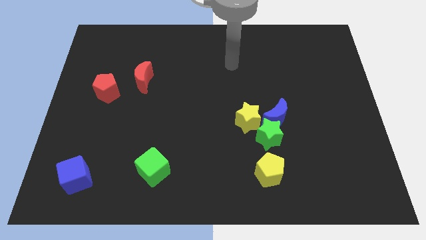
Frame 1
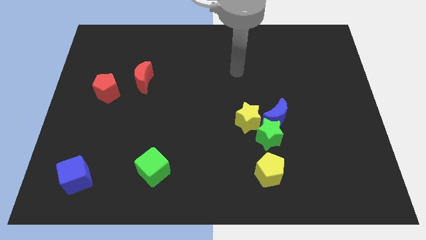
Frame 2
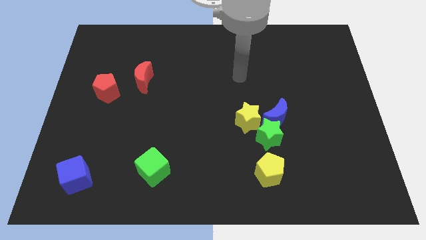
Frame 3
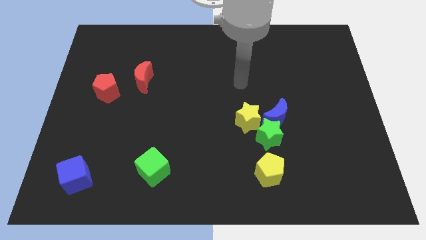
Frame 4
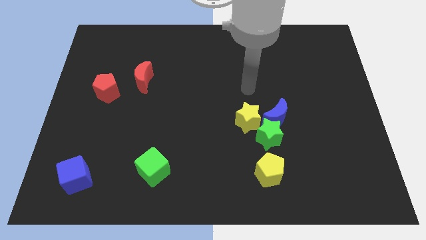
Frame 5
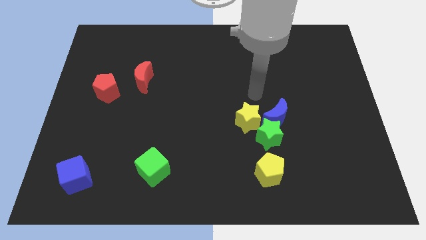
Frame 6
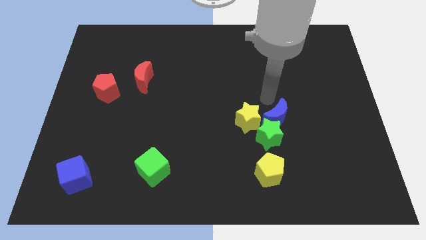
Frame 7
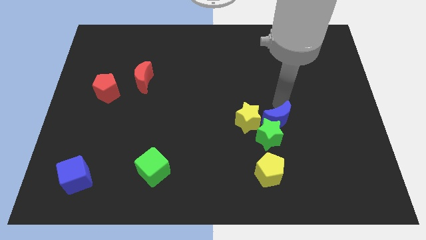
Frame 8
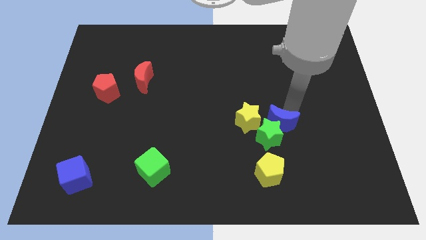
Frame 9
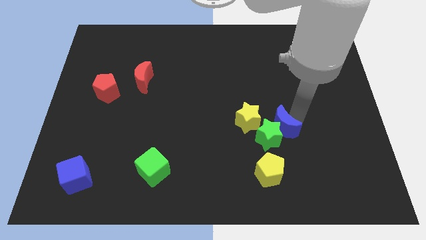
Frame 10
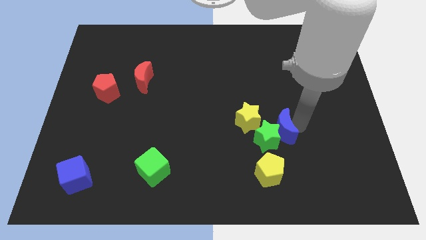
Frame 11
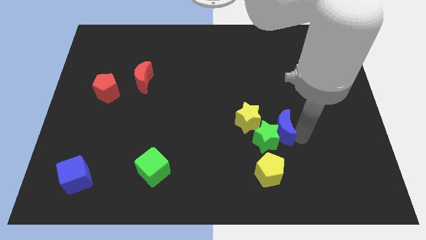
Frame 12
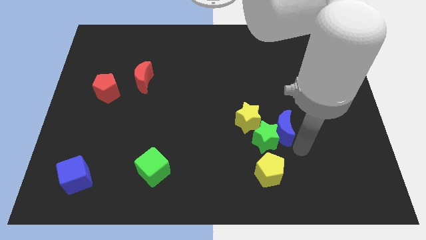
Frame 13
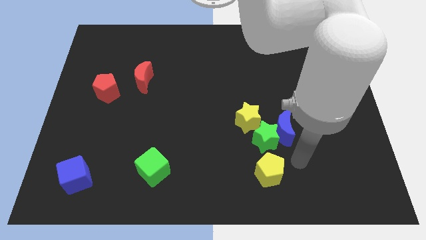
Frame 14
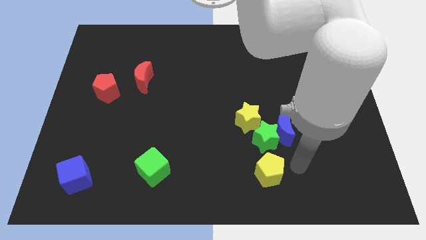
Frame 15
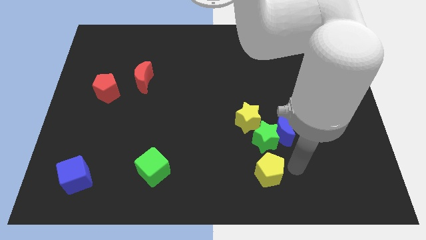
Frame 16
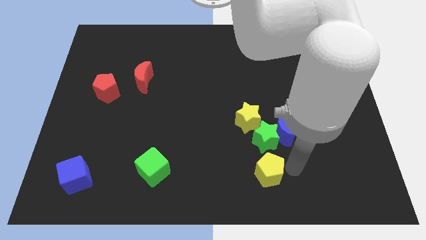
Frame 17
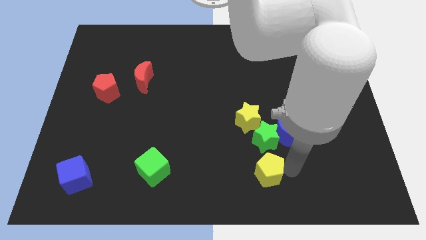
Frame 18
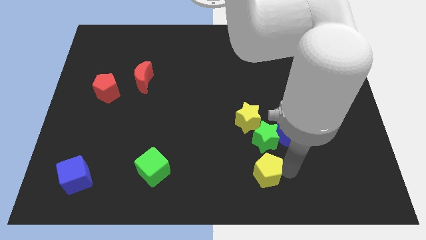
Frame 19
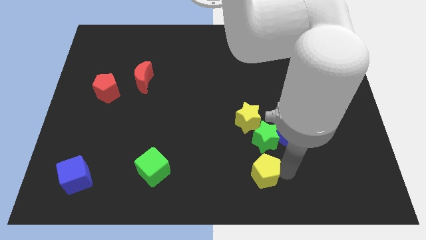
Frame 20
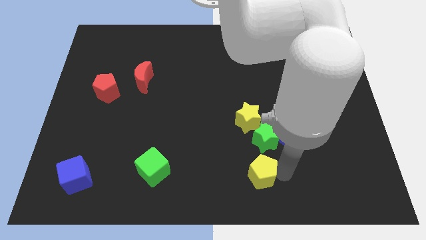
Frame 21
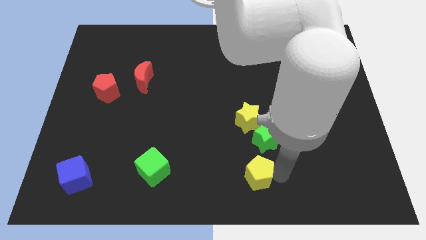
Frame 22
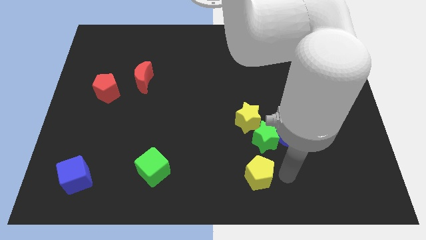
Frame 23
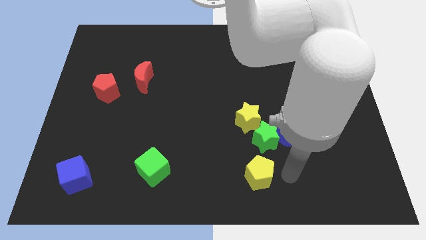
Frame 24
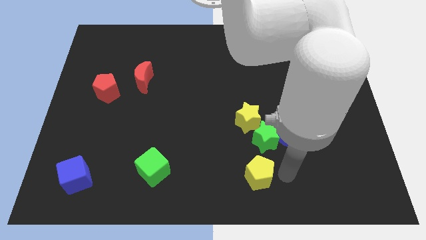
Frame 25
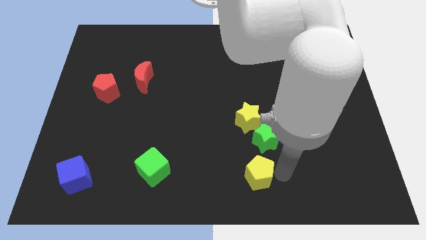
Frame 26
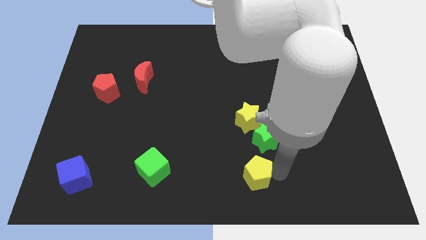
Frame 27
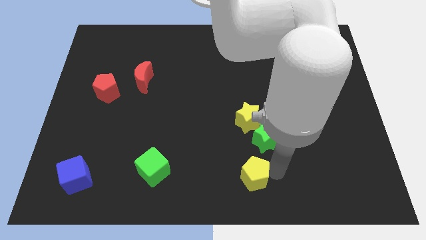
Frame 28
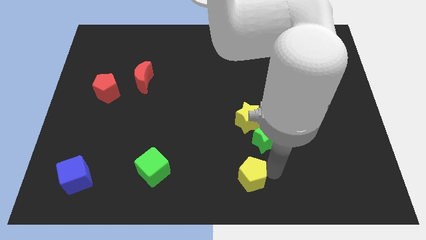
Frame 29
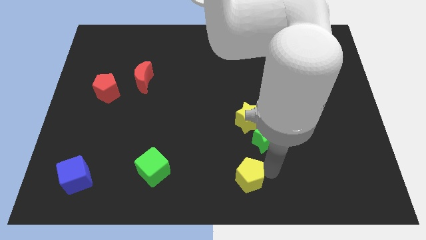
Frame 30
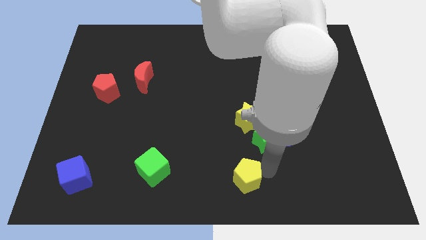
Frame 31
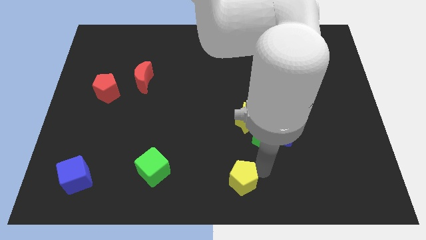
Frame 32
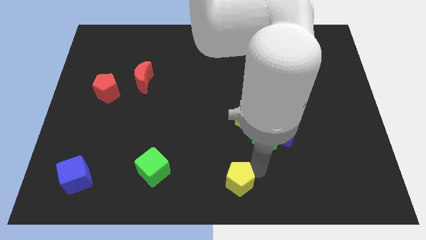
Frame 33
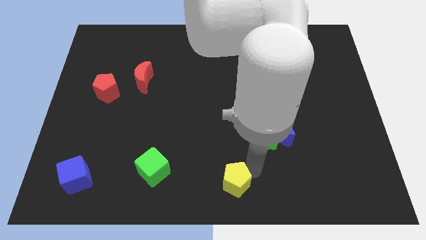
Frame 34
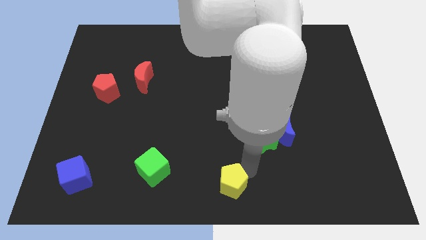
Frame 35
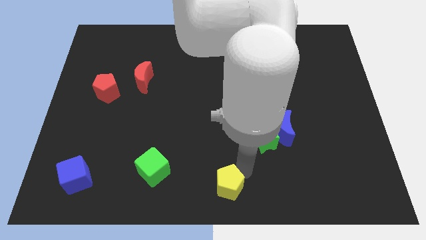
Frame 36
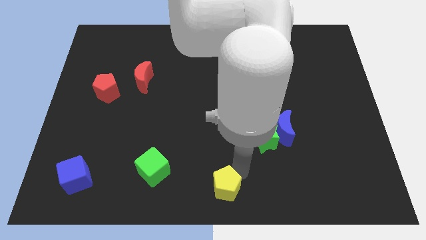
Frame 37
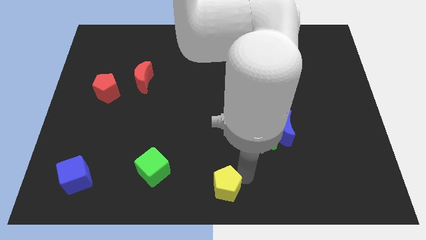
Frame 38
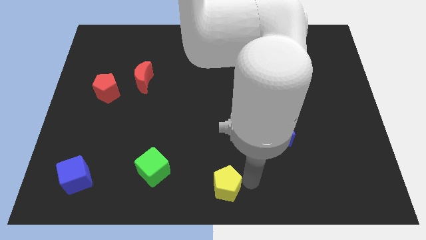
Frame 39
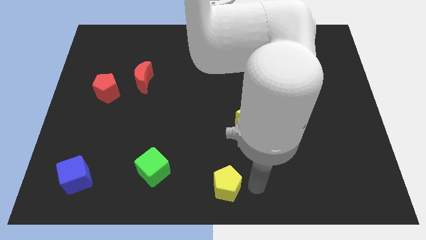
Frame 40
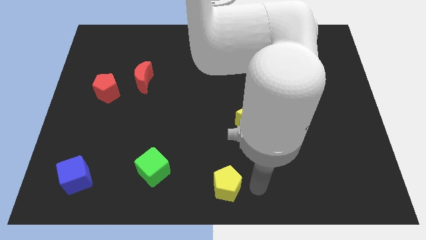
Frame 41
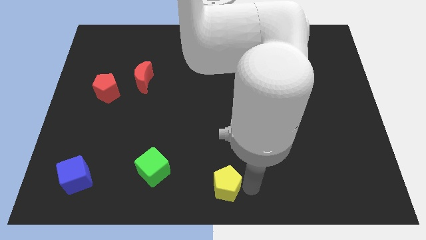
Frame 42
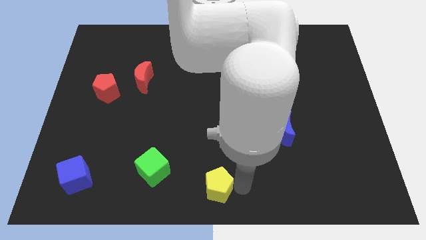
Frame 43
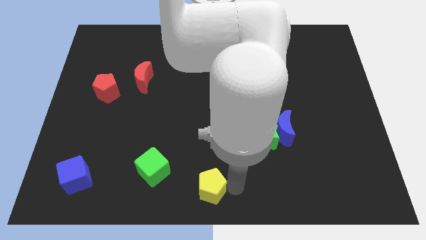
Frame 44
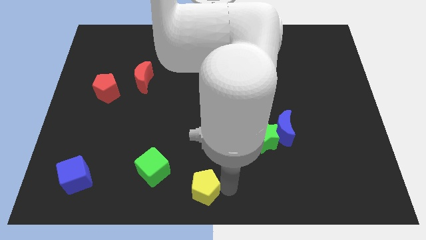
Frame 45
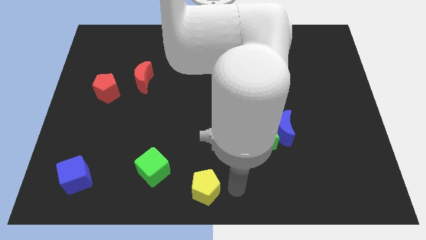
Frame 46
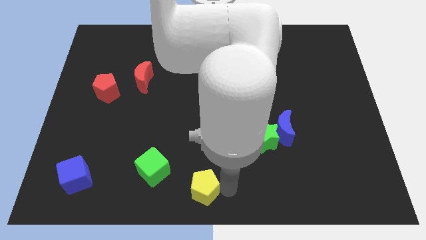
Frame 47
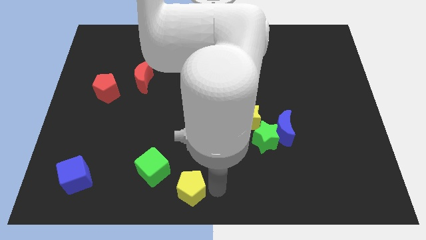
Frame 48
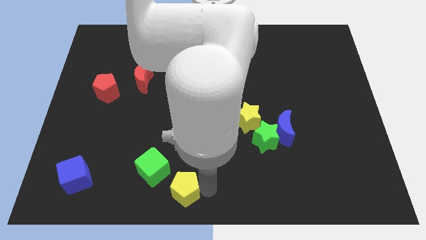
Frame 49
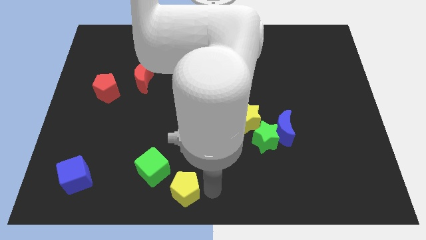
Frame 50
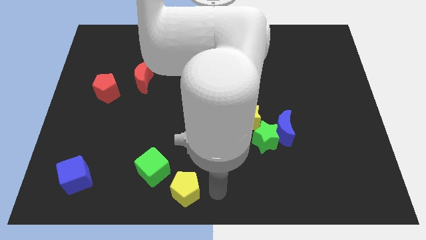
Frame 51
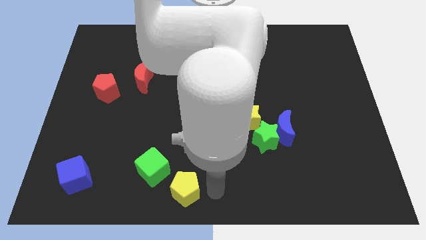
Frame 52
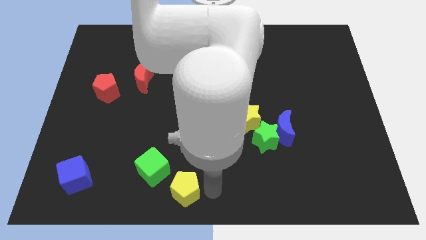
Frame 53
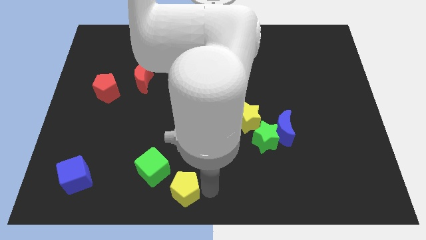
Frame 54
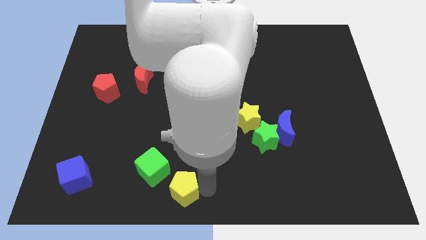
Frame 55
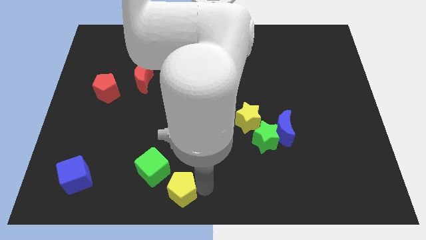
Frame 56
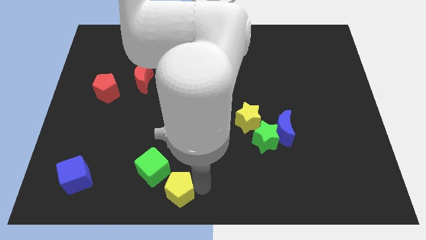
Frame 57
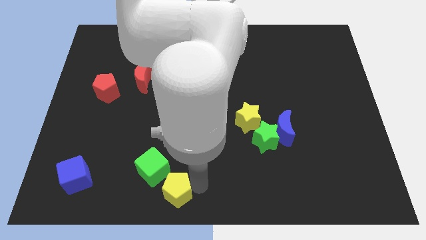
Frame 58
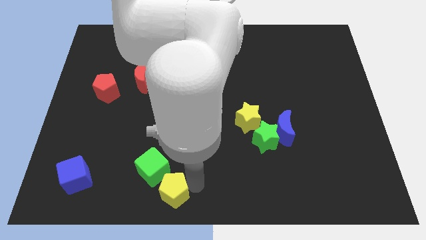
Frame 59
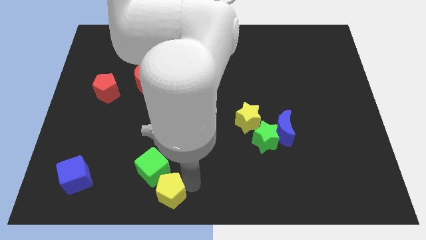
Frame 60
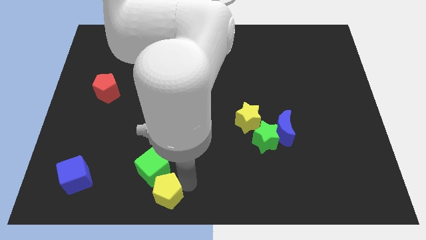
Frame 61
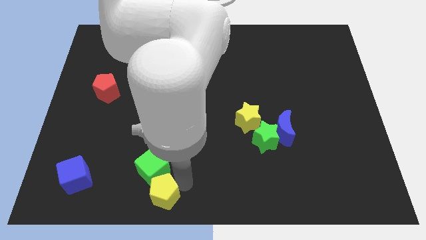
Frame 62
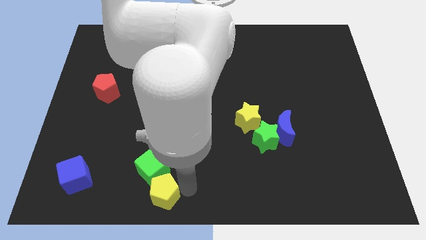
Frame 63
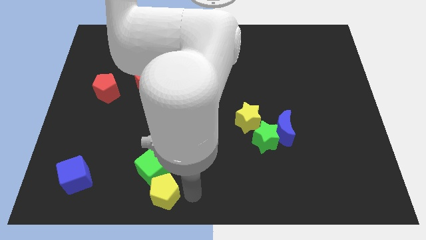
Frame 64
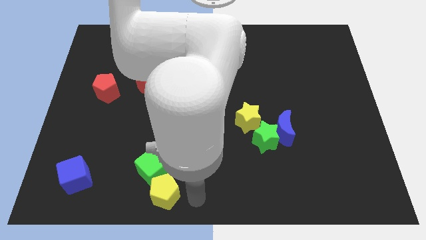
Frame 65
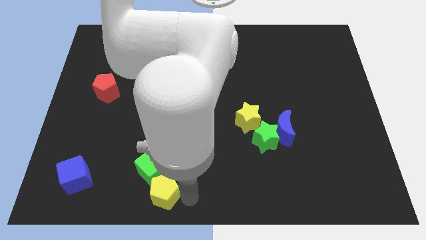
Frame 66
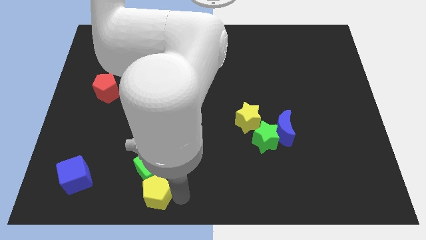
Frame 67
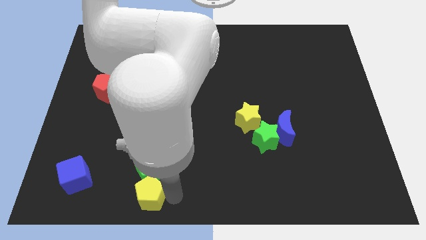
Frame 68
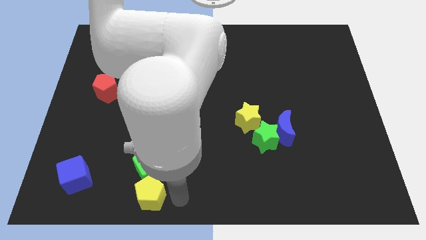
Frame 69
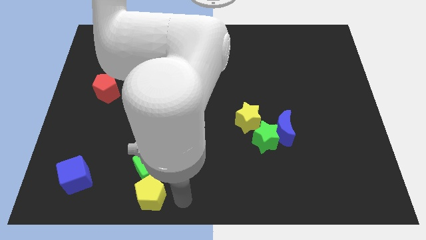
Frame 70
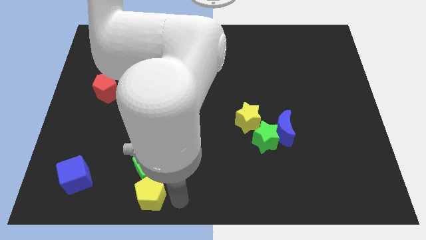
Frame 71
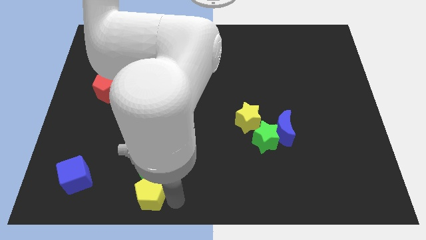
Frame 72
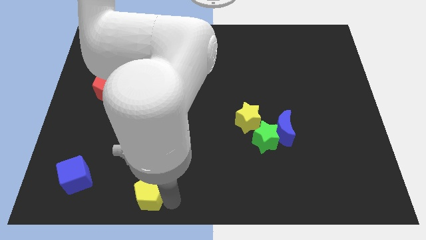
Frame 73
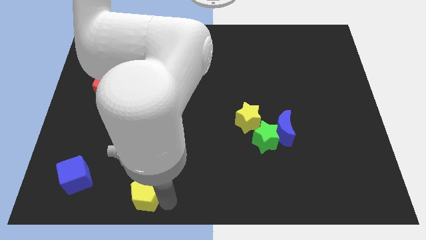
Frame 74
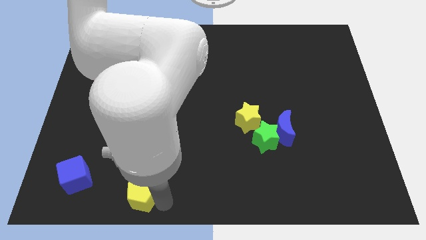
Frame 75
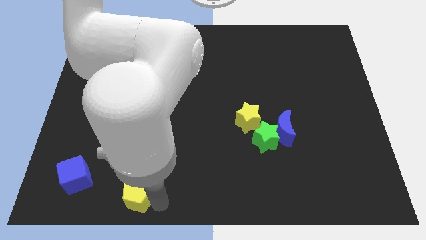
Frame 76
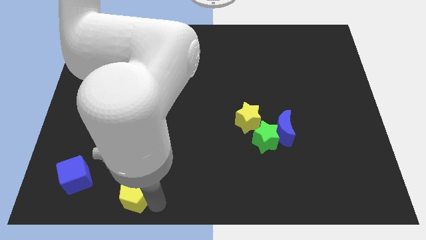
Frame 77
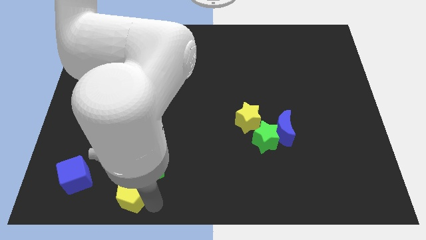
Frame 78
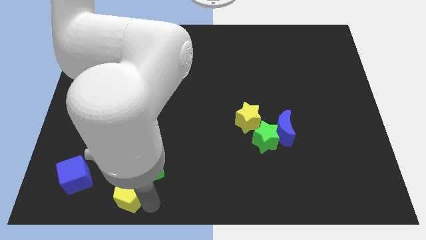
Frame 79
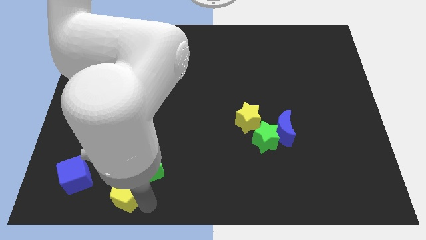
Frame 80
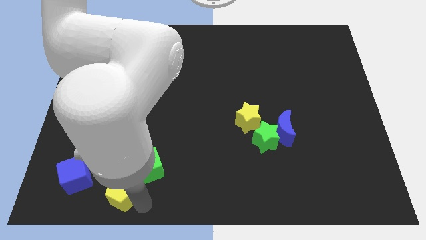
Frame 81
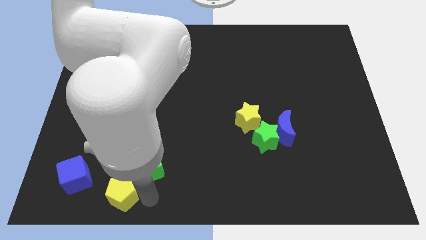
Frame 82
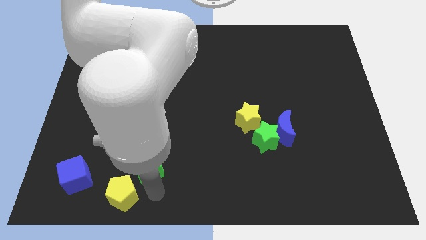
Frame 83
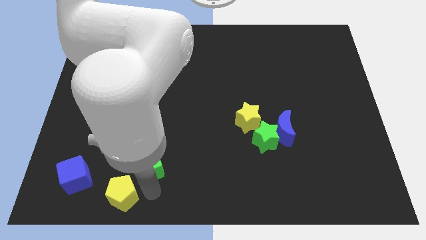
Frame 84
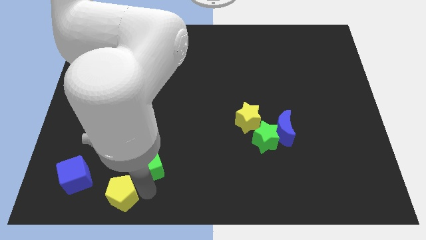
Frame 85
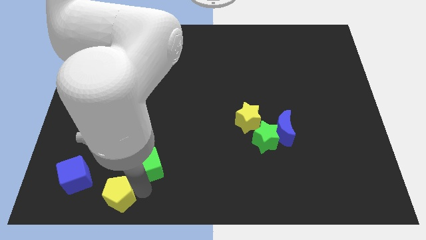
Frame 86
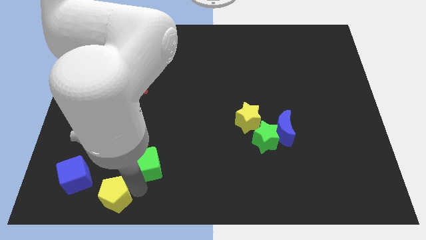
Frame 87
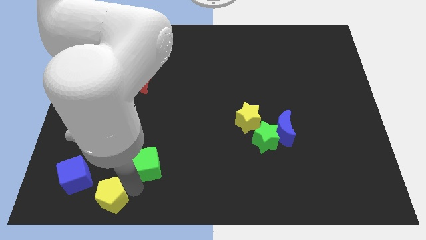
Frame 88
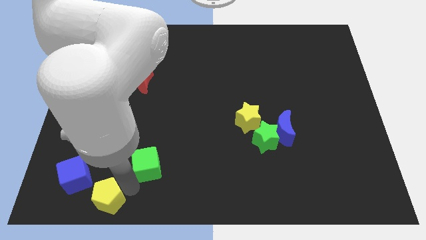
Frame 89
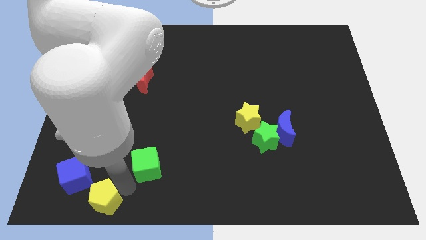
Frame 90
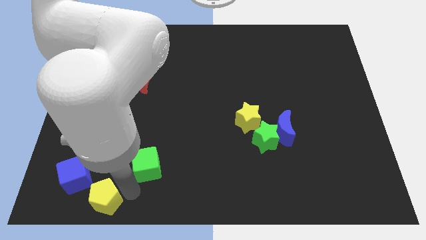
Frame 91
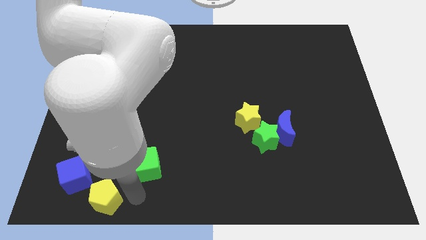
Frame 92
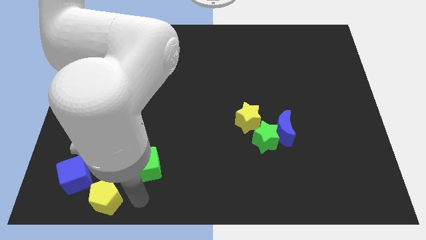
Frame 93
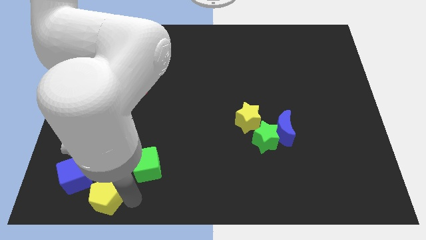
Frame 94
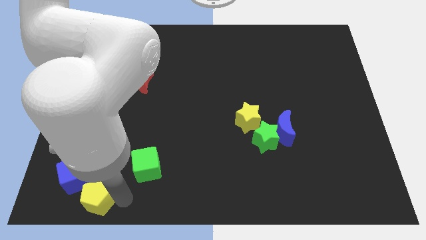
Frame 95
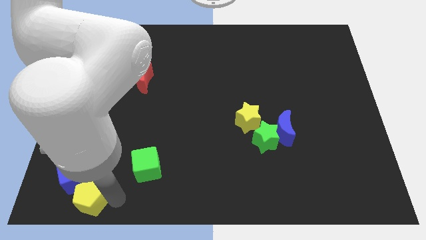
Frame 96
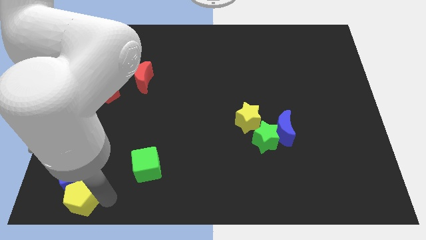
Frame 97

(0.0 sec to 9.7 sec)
move the yellow pentagon to the lower left corner
